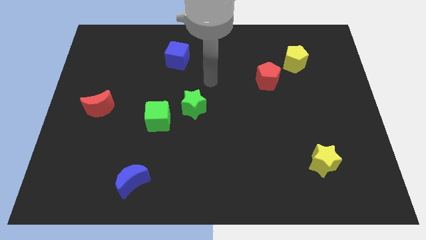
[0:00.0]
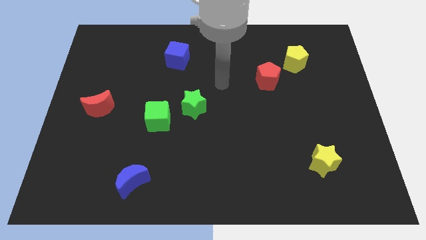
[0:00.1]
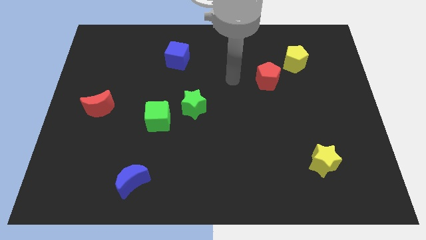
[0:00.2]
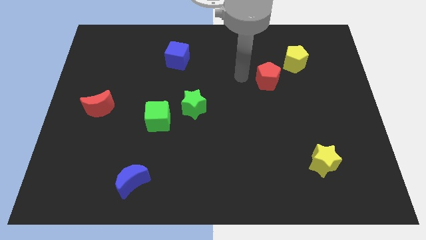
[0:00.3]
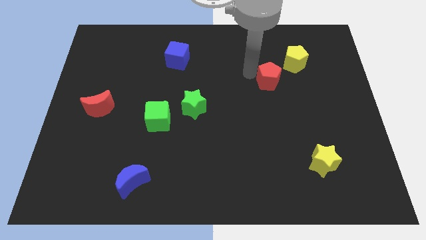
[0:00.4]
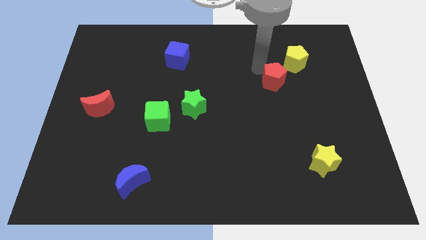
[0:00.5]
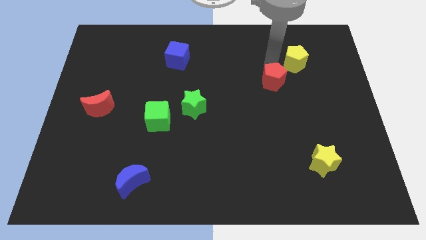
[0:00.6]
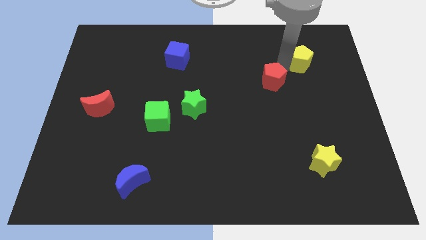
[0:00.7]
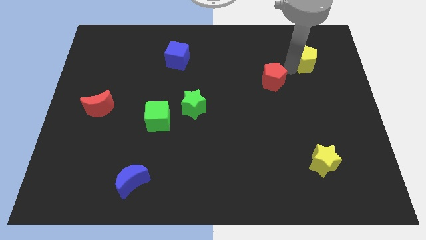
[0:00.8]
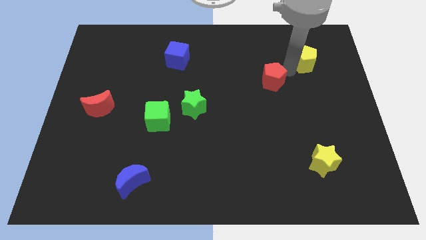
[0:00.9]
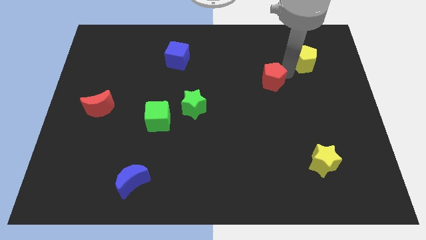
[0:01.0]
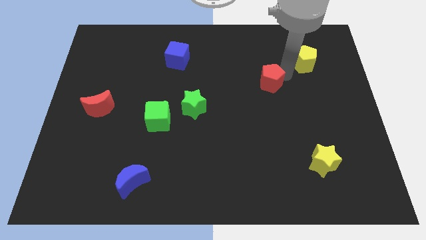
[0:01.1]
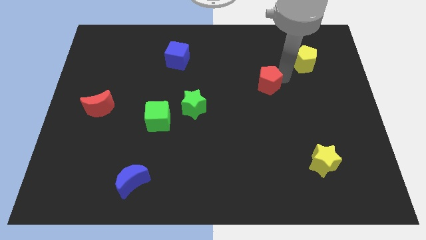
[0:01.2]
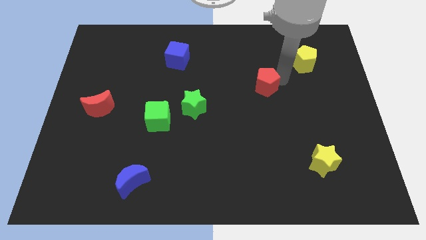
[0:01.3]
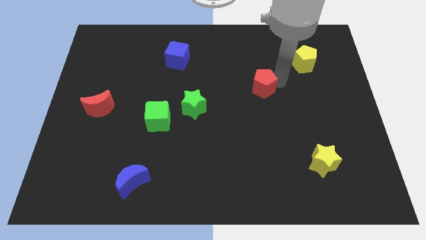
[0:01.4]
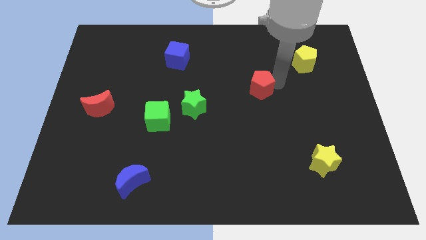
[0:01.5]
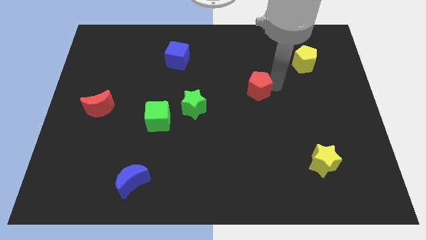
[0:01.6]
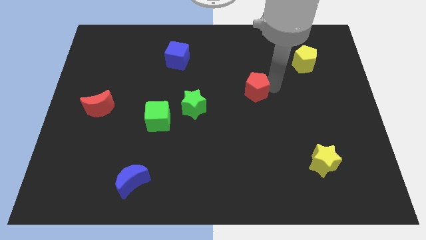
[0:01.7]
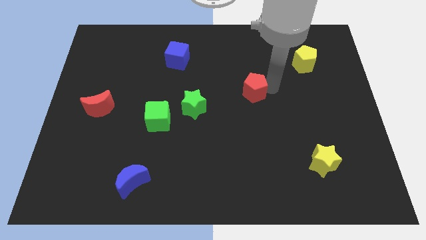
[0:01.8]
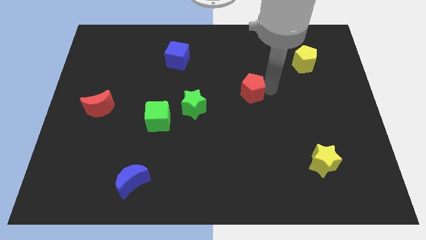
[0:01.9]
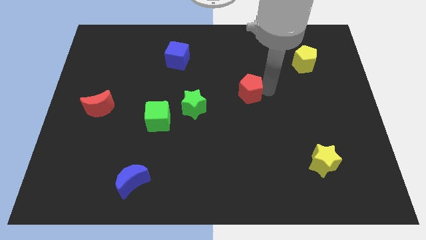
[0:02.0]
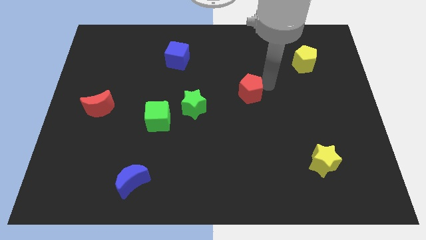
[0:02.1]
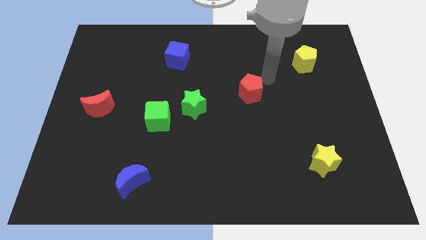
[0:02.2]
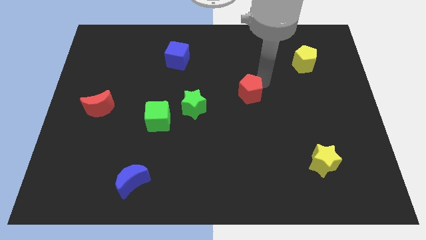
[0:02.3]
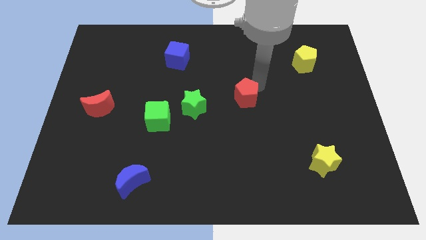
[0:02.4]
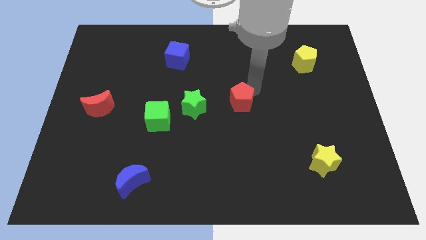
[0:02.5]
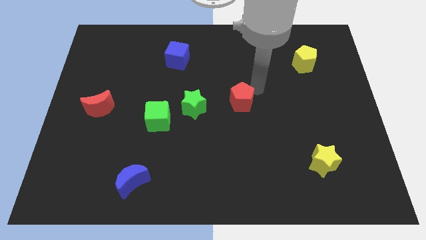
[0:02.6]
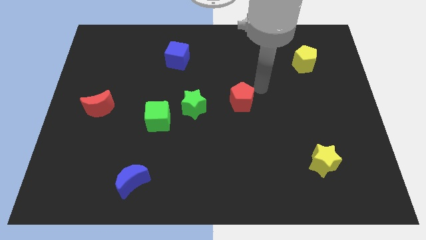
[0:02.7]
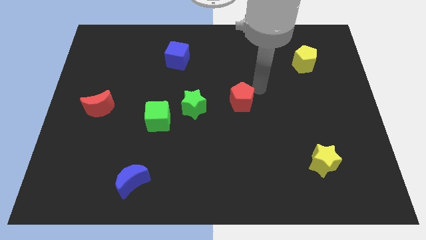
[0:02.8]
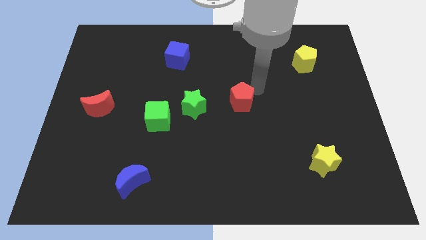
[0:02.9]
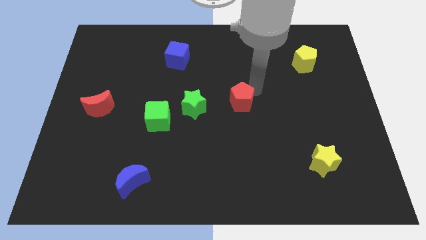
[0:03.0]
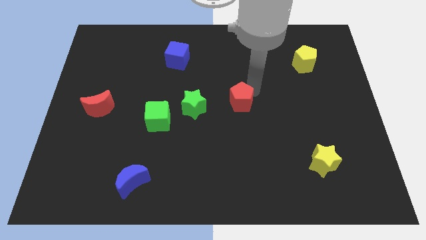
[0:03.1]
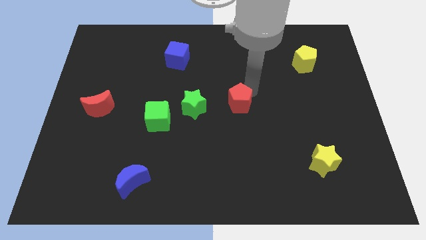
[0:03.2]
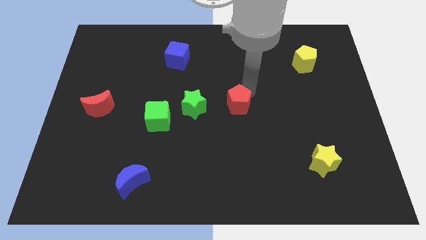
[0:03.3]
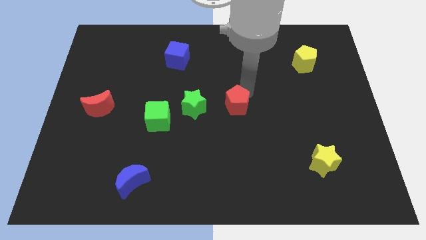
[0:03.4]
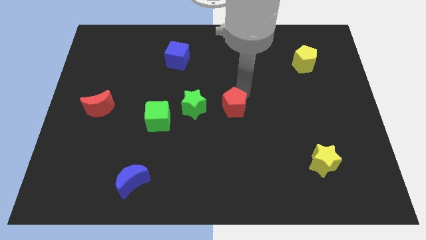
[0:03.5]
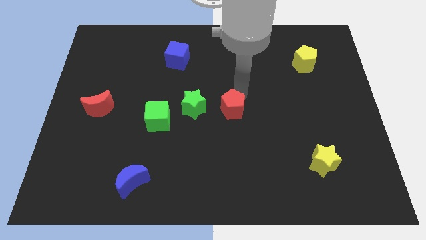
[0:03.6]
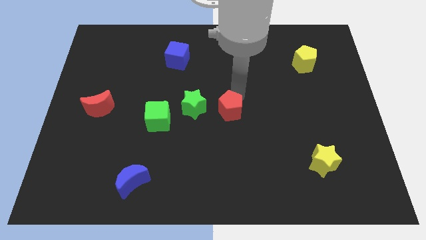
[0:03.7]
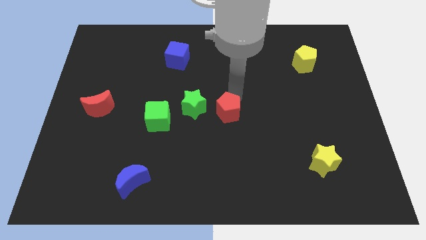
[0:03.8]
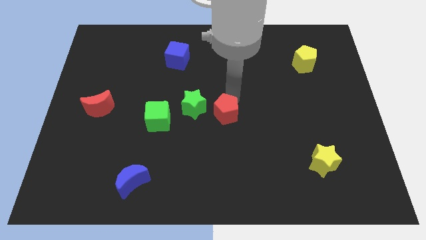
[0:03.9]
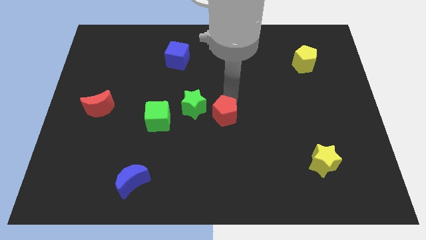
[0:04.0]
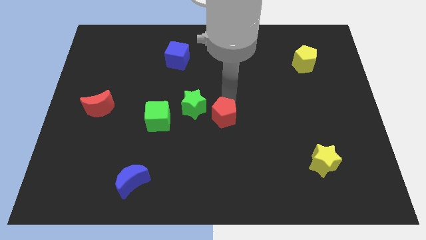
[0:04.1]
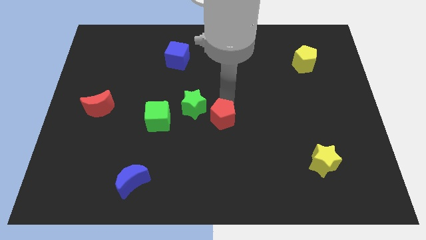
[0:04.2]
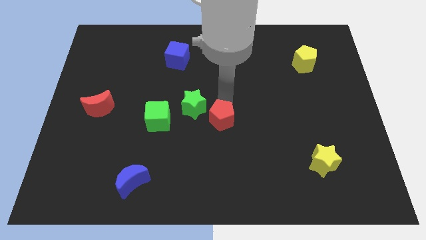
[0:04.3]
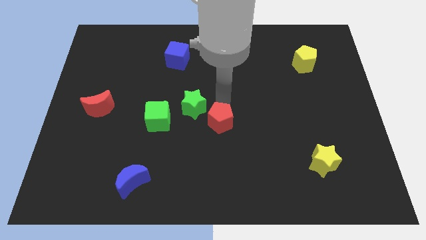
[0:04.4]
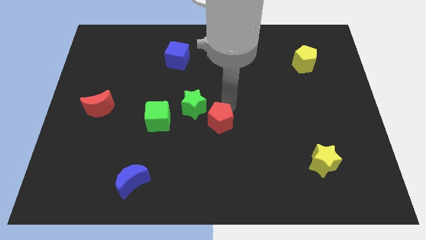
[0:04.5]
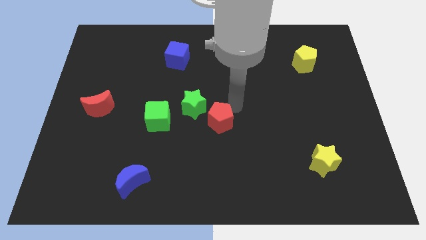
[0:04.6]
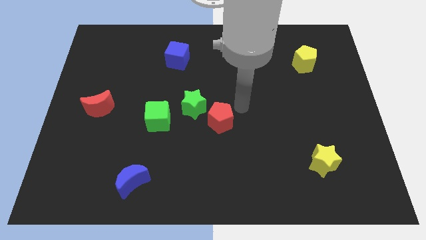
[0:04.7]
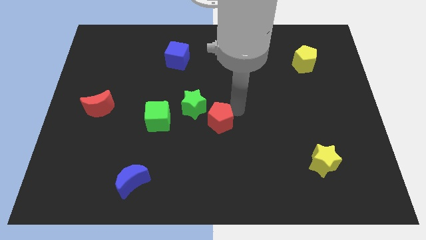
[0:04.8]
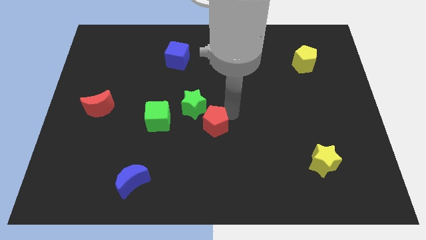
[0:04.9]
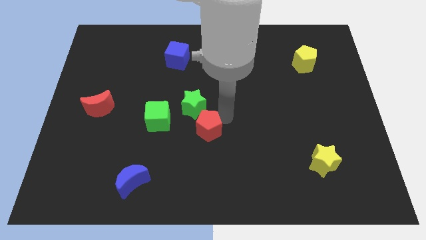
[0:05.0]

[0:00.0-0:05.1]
slide the red pentagon downwards and left diagonally

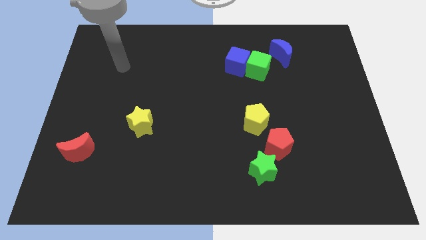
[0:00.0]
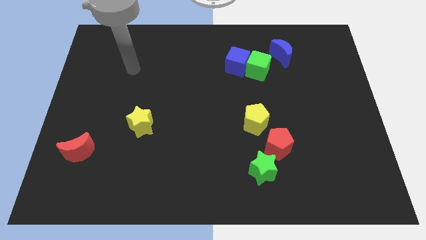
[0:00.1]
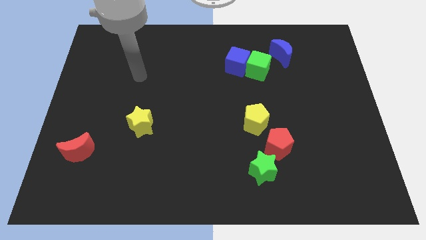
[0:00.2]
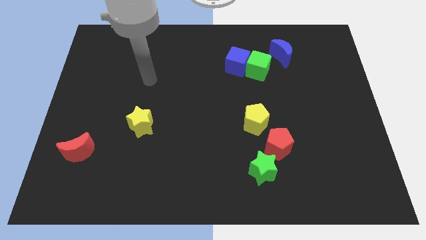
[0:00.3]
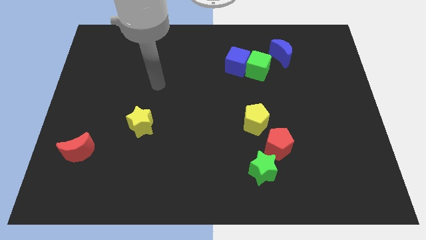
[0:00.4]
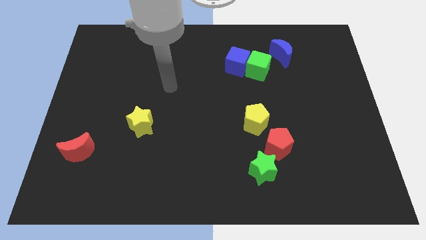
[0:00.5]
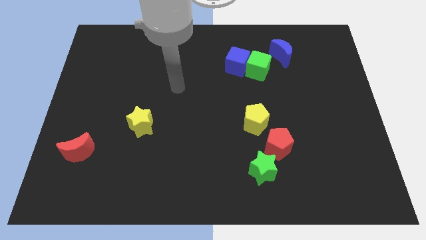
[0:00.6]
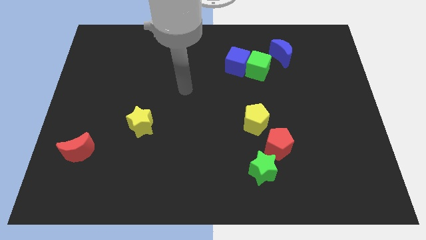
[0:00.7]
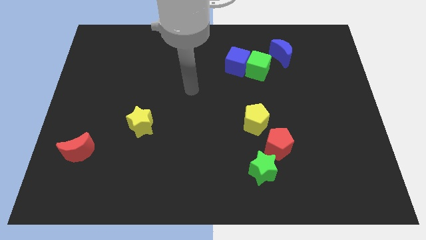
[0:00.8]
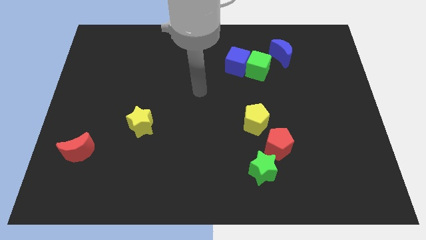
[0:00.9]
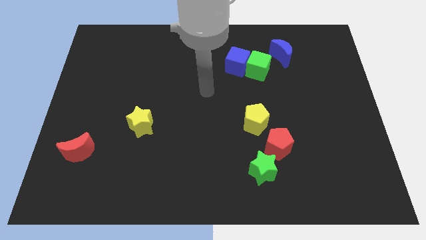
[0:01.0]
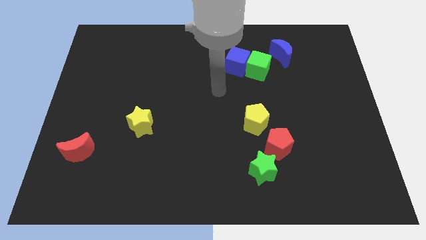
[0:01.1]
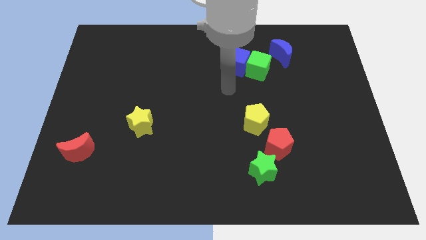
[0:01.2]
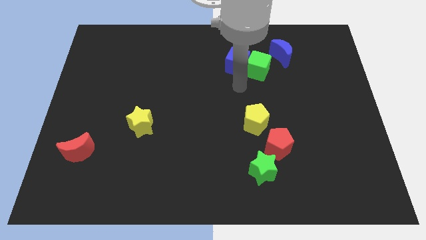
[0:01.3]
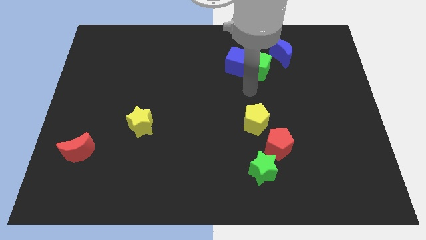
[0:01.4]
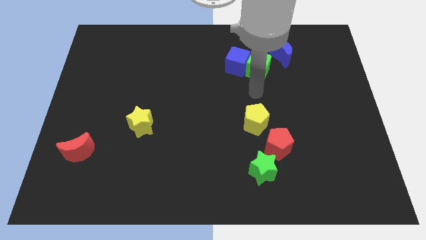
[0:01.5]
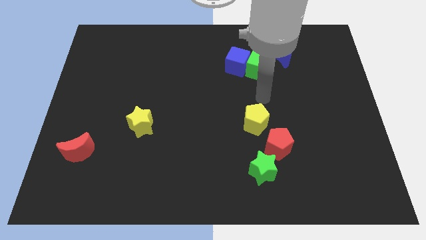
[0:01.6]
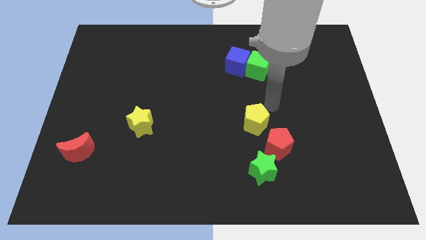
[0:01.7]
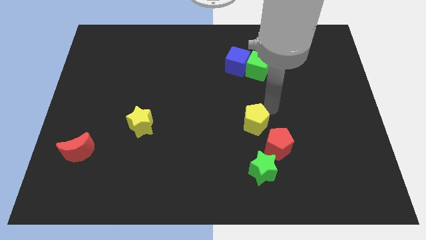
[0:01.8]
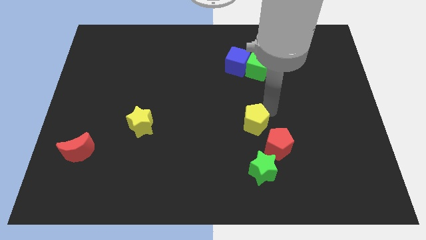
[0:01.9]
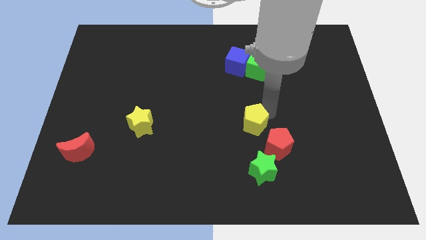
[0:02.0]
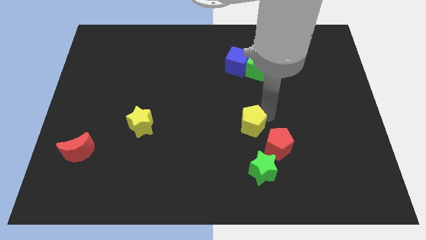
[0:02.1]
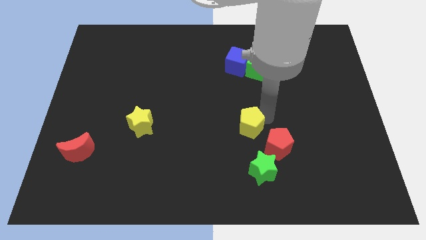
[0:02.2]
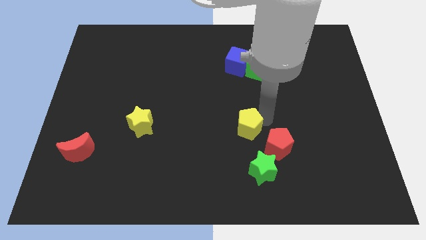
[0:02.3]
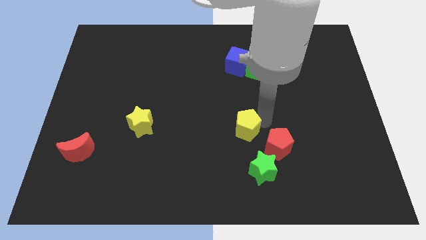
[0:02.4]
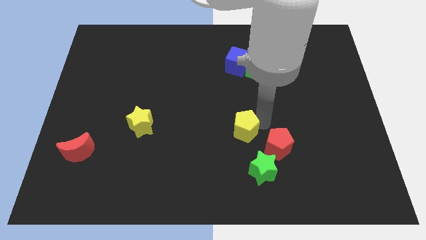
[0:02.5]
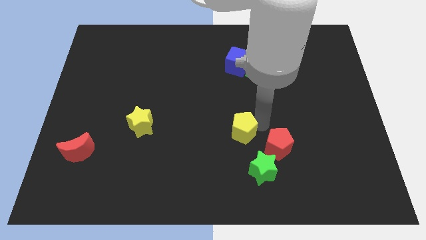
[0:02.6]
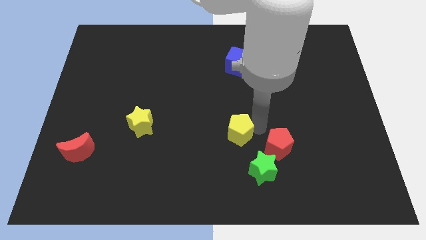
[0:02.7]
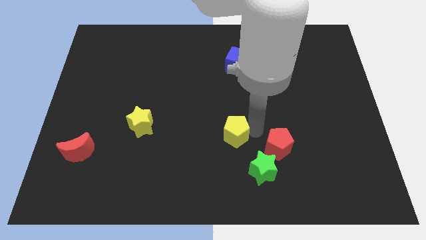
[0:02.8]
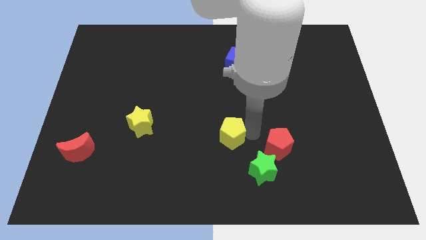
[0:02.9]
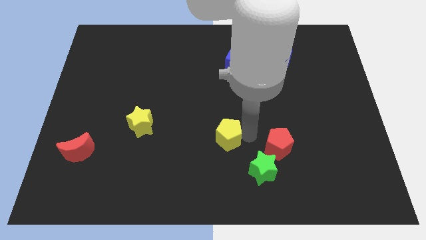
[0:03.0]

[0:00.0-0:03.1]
slide the yellow pentagon down and left somewhat

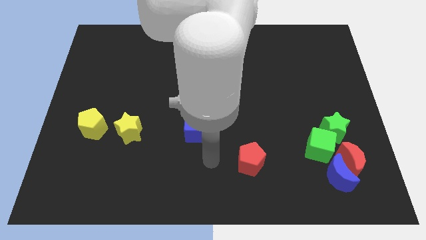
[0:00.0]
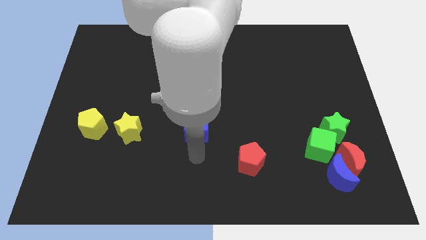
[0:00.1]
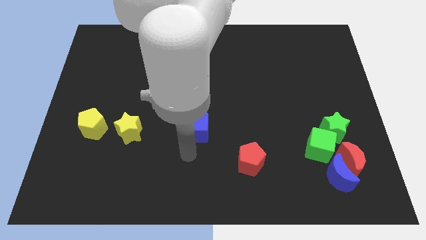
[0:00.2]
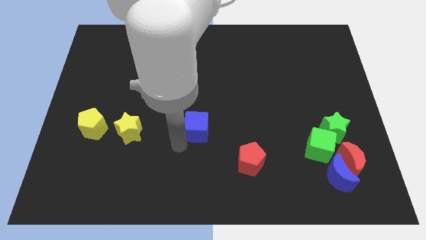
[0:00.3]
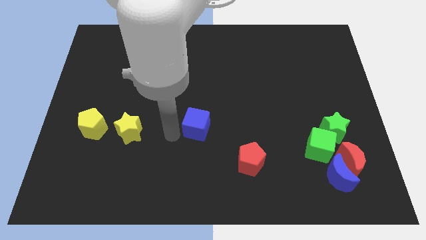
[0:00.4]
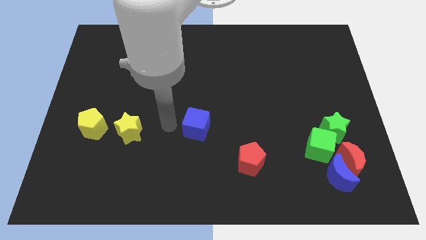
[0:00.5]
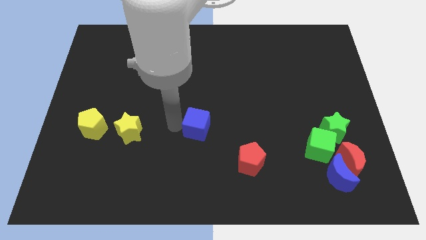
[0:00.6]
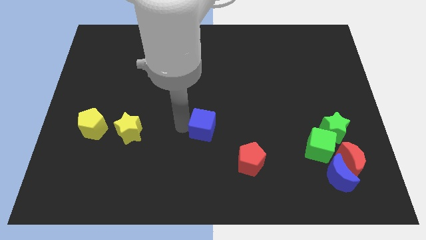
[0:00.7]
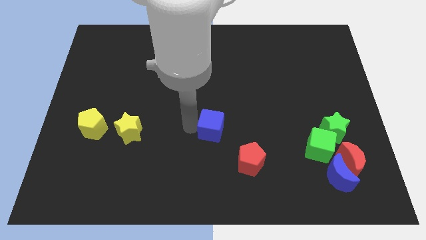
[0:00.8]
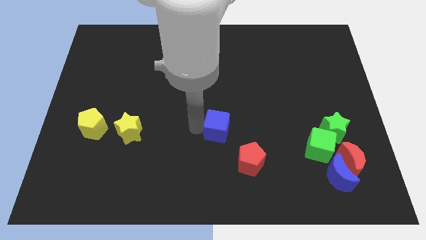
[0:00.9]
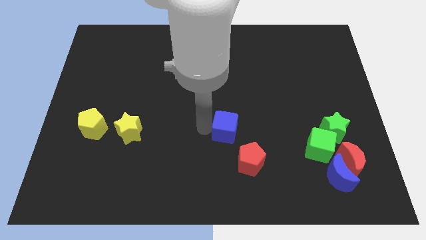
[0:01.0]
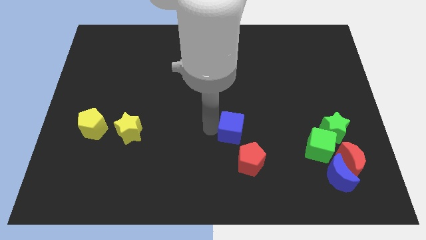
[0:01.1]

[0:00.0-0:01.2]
slide the blue cube right a little bit
